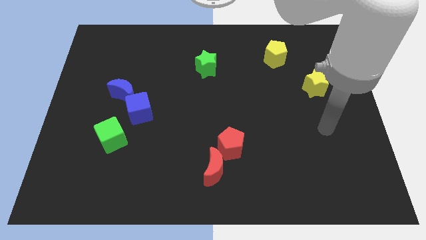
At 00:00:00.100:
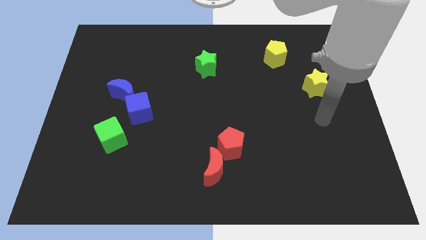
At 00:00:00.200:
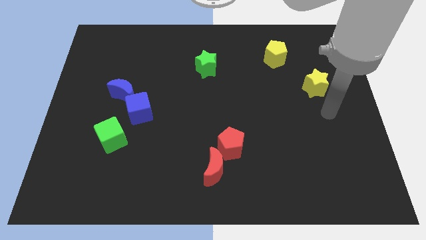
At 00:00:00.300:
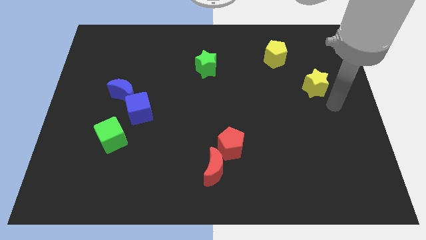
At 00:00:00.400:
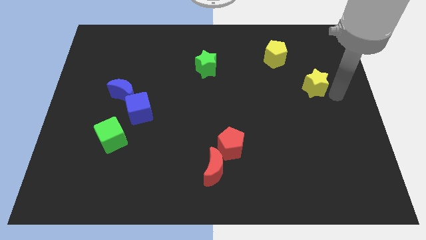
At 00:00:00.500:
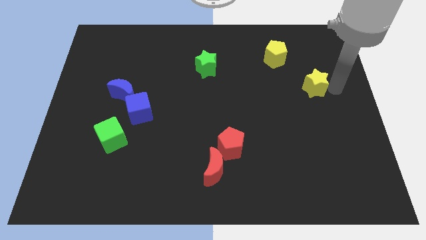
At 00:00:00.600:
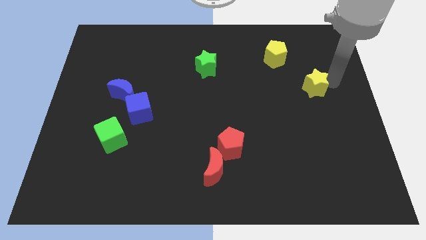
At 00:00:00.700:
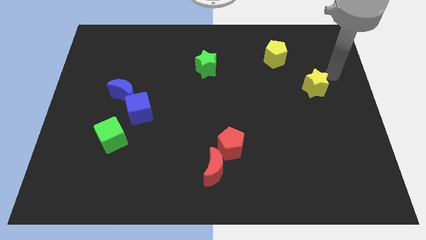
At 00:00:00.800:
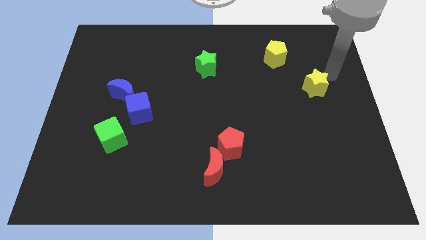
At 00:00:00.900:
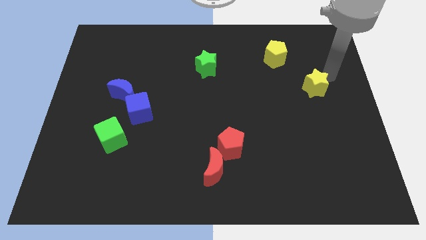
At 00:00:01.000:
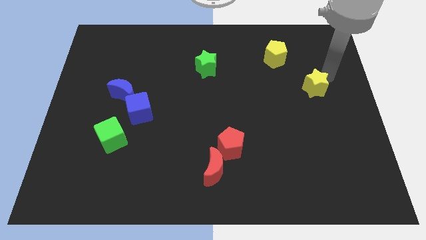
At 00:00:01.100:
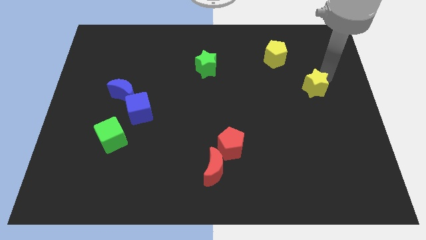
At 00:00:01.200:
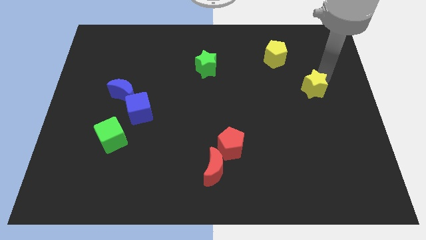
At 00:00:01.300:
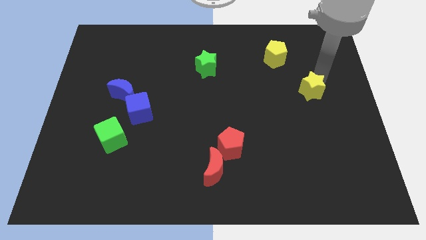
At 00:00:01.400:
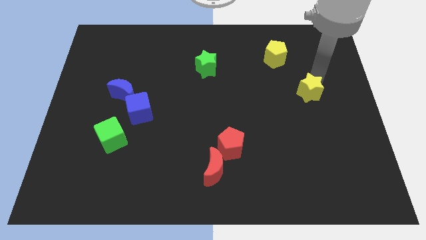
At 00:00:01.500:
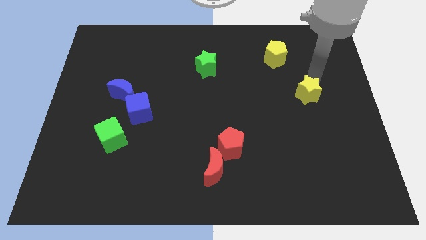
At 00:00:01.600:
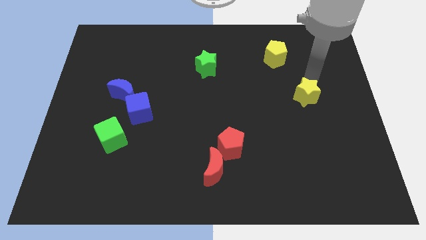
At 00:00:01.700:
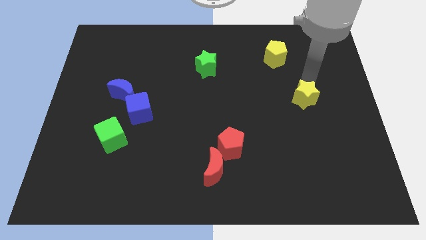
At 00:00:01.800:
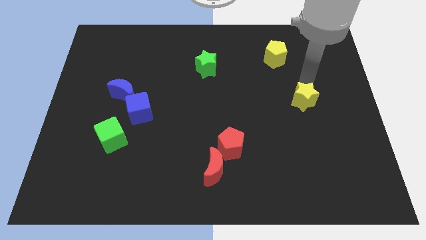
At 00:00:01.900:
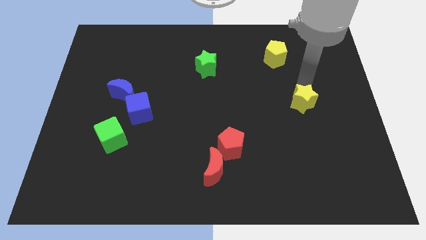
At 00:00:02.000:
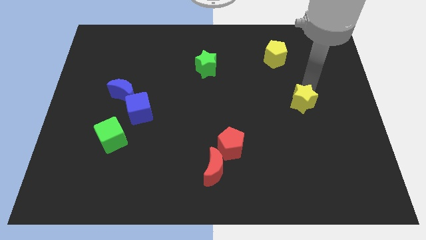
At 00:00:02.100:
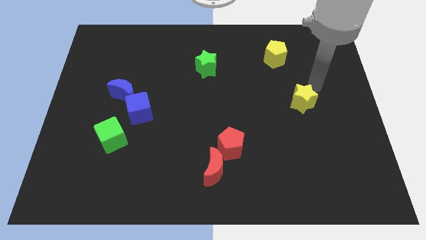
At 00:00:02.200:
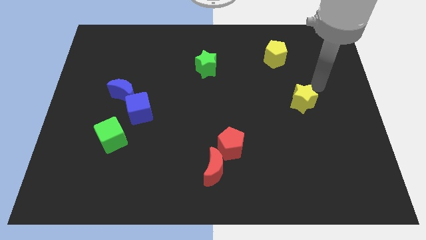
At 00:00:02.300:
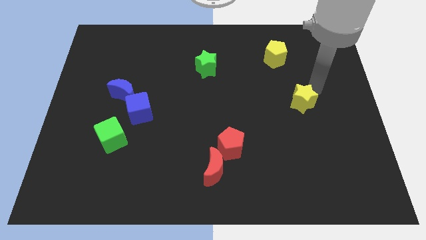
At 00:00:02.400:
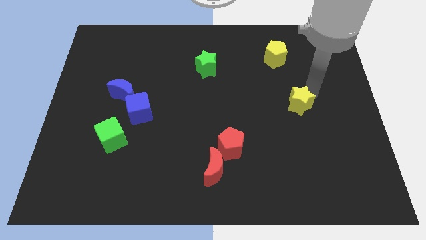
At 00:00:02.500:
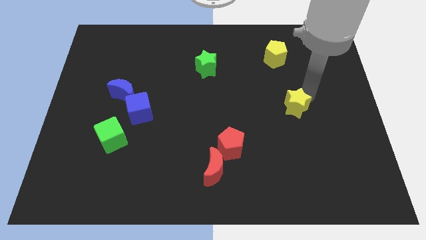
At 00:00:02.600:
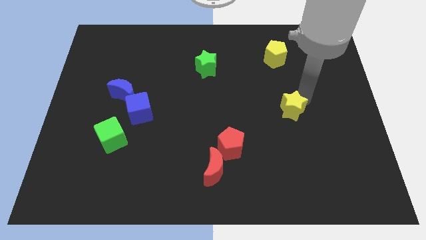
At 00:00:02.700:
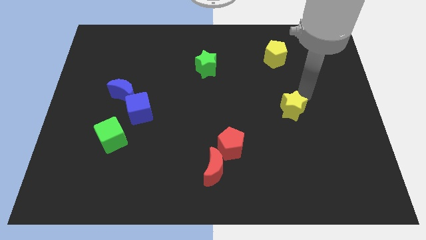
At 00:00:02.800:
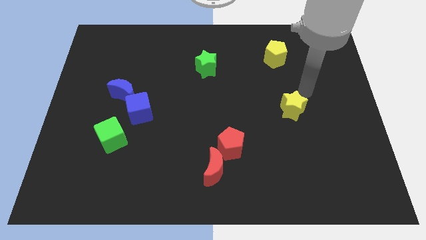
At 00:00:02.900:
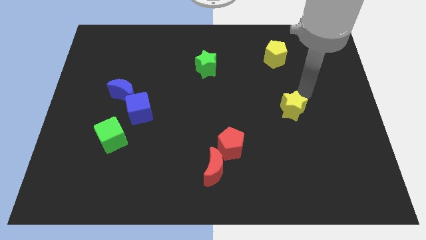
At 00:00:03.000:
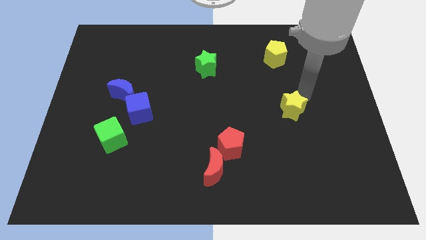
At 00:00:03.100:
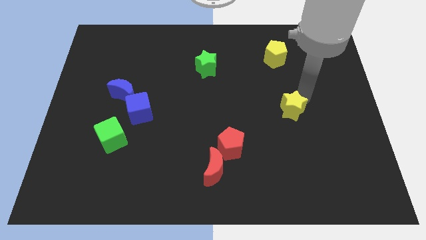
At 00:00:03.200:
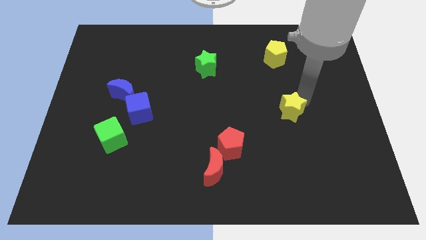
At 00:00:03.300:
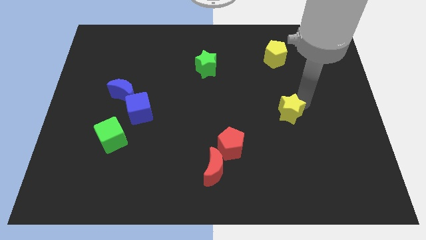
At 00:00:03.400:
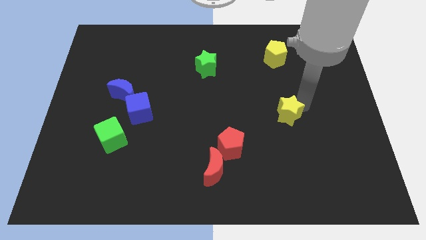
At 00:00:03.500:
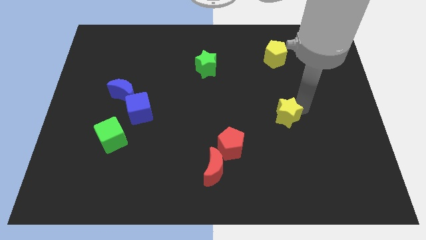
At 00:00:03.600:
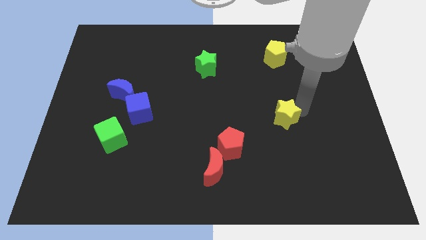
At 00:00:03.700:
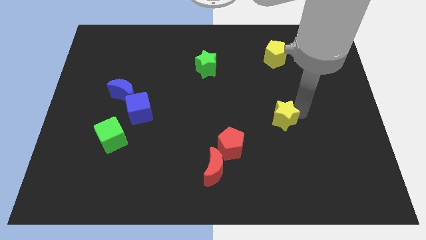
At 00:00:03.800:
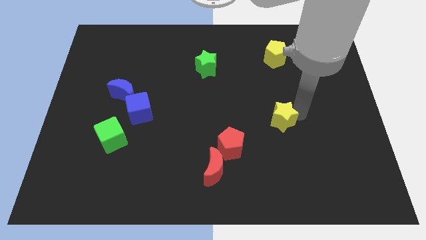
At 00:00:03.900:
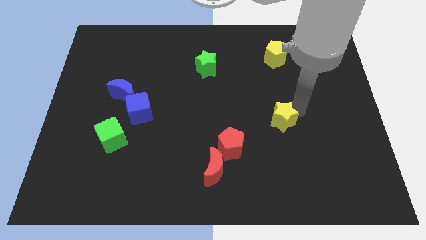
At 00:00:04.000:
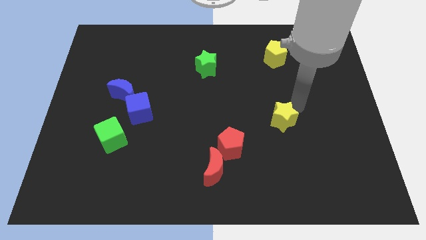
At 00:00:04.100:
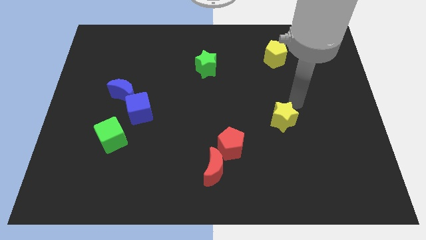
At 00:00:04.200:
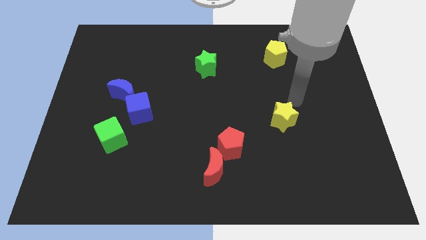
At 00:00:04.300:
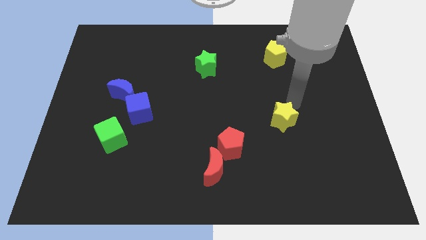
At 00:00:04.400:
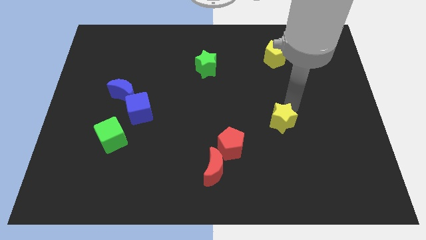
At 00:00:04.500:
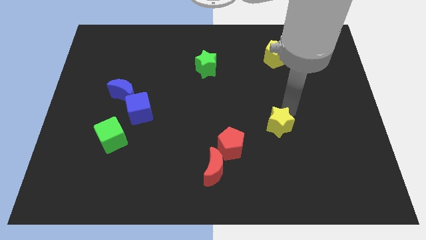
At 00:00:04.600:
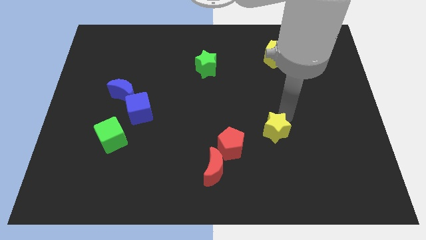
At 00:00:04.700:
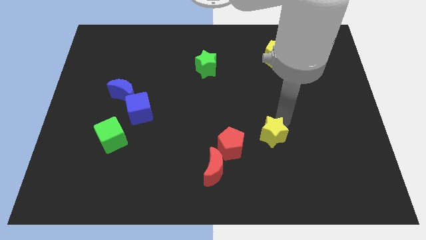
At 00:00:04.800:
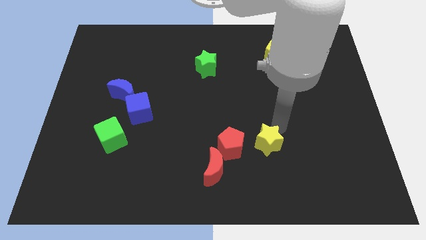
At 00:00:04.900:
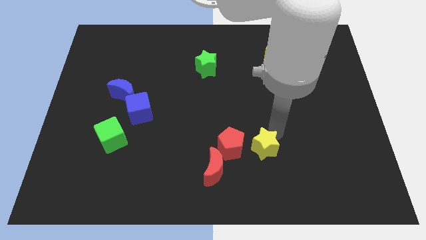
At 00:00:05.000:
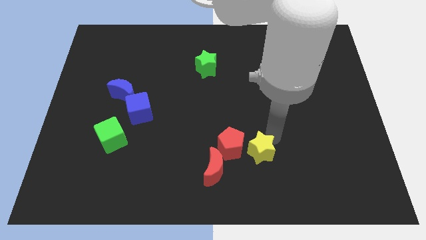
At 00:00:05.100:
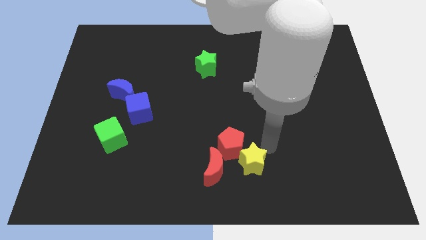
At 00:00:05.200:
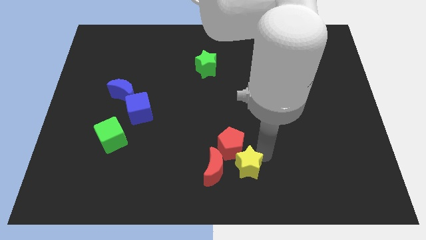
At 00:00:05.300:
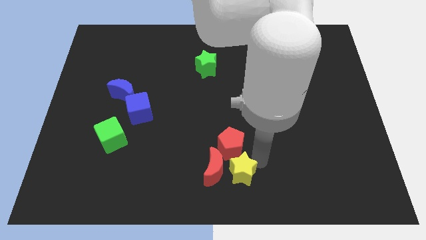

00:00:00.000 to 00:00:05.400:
slide the yellow star close to the red moon

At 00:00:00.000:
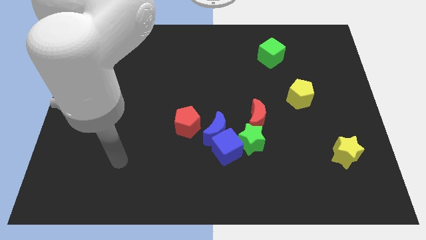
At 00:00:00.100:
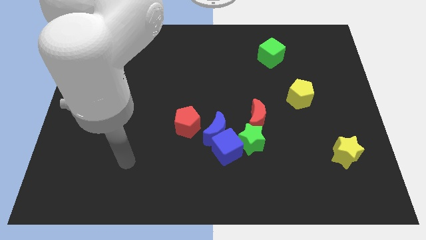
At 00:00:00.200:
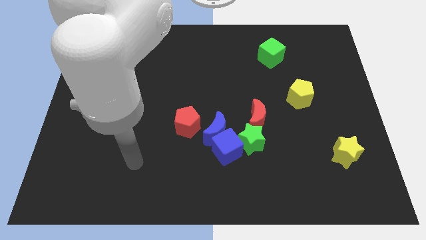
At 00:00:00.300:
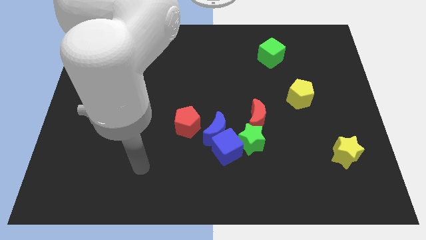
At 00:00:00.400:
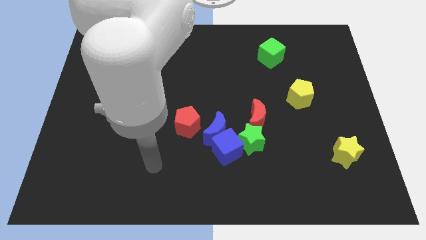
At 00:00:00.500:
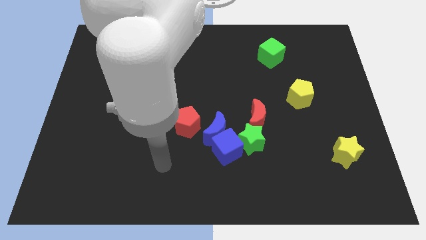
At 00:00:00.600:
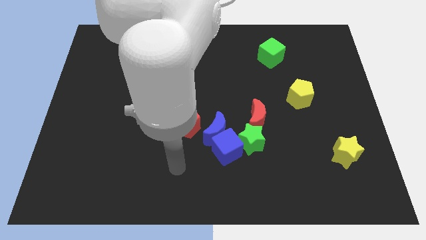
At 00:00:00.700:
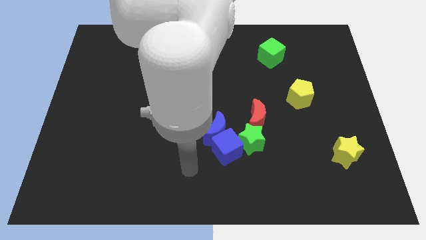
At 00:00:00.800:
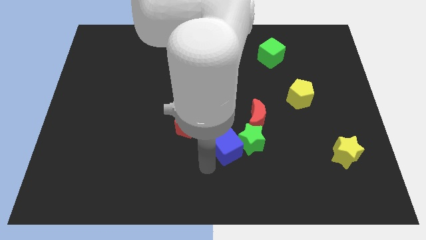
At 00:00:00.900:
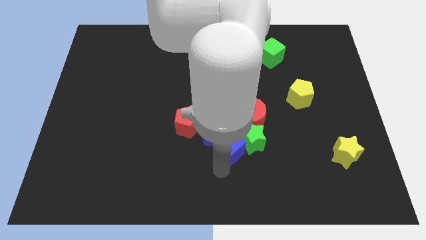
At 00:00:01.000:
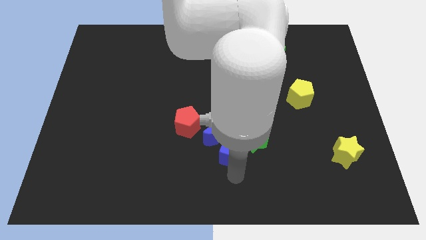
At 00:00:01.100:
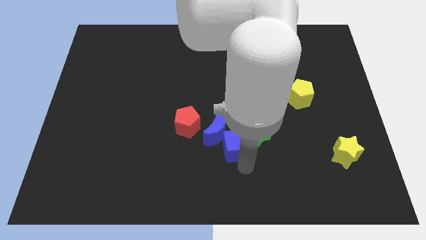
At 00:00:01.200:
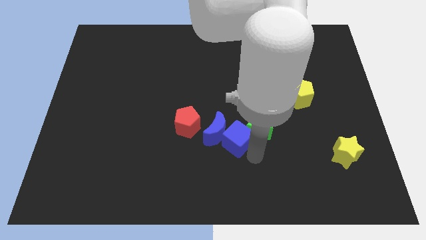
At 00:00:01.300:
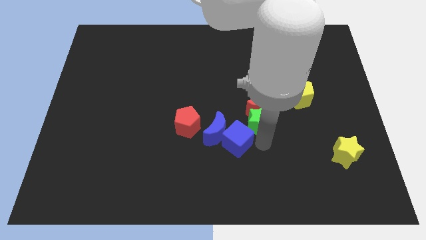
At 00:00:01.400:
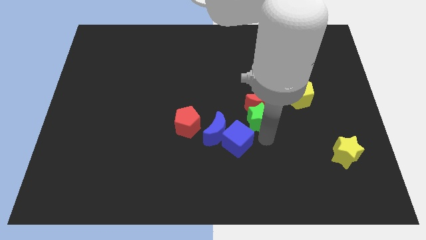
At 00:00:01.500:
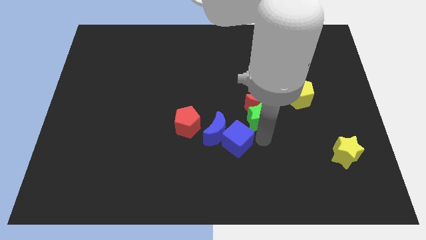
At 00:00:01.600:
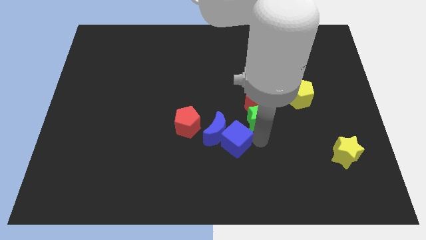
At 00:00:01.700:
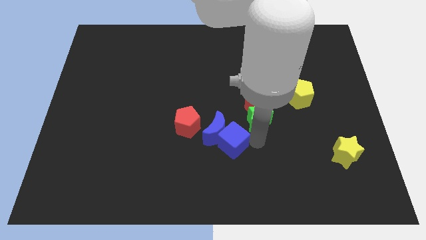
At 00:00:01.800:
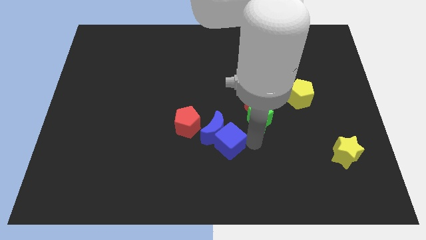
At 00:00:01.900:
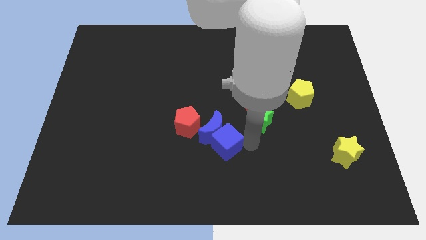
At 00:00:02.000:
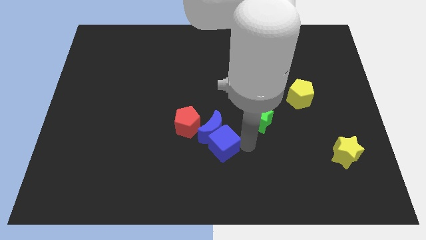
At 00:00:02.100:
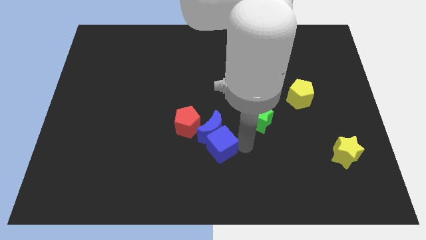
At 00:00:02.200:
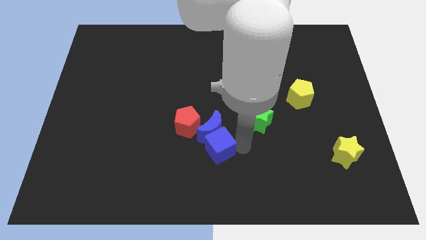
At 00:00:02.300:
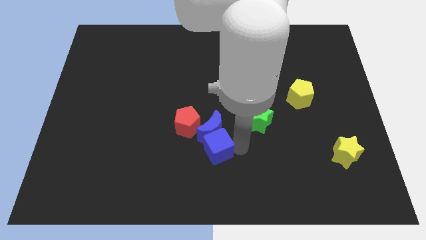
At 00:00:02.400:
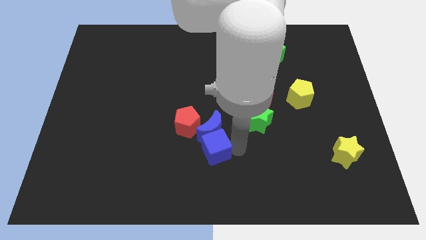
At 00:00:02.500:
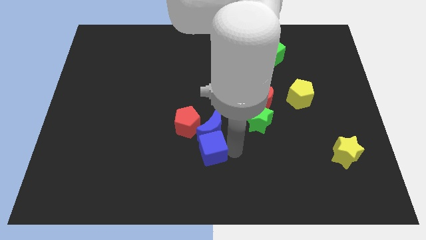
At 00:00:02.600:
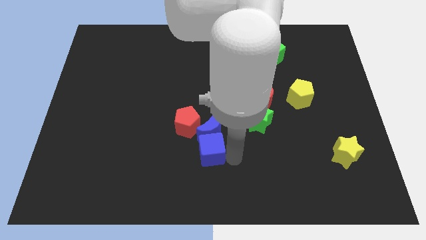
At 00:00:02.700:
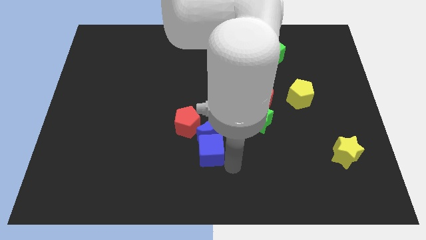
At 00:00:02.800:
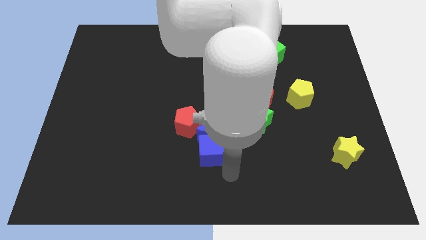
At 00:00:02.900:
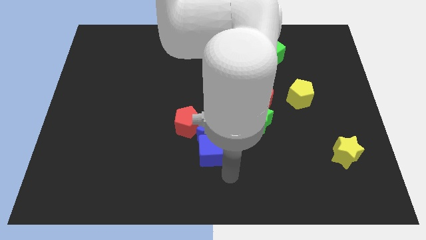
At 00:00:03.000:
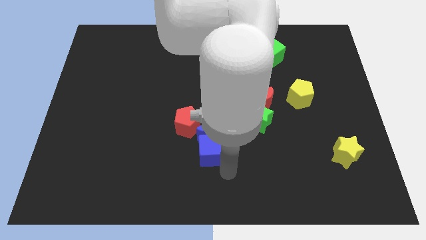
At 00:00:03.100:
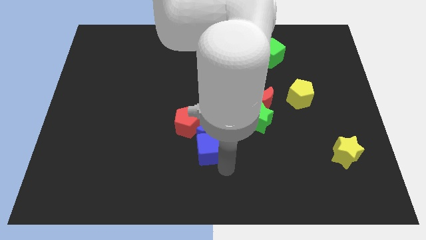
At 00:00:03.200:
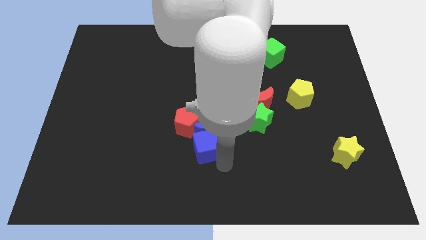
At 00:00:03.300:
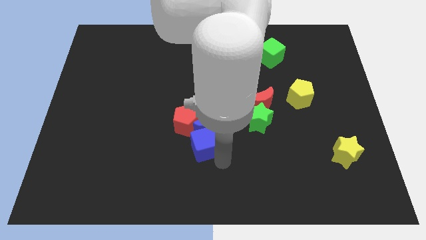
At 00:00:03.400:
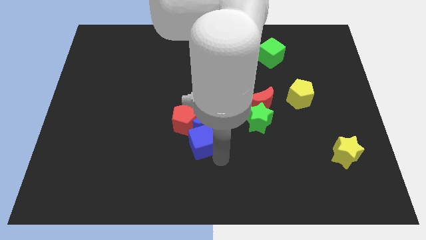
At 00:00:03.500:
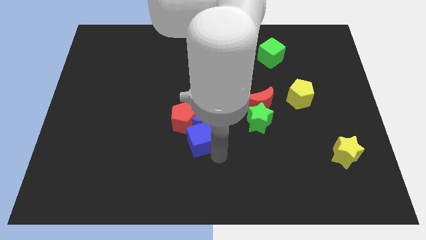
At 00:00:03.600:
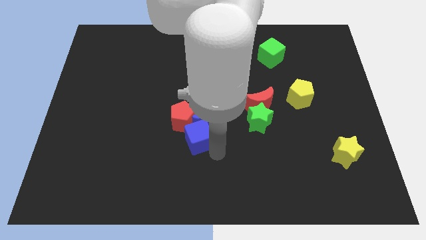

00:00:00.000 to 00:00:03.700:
put the blue cube to the red pentagon
